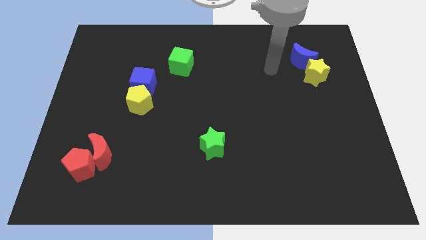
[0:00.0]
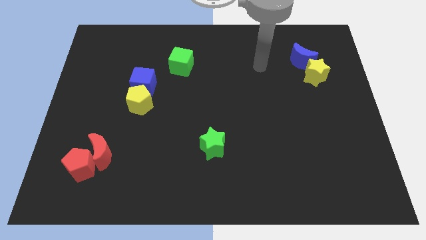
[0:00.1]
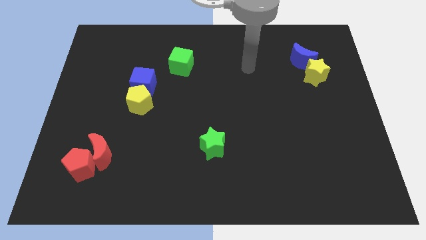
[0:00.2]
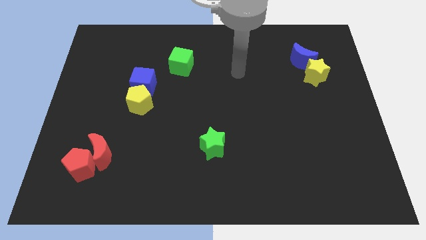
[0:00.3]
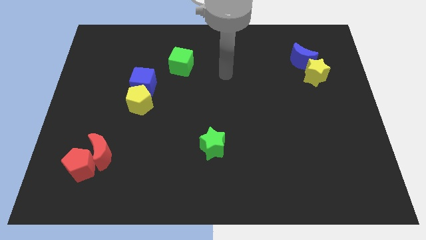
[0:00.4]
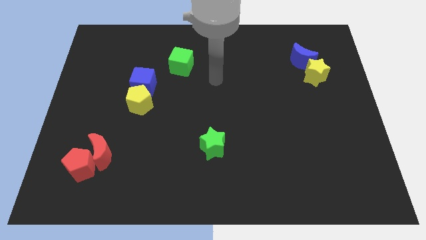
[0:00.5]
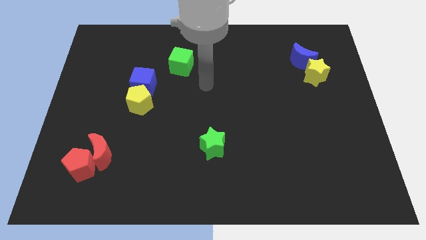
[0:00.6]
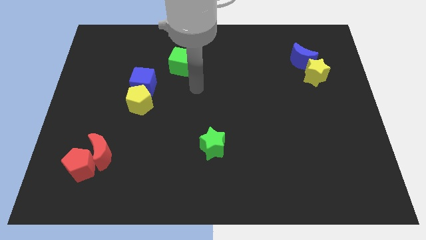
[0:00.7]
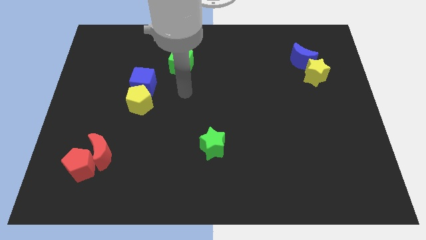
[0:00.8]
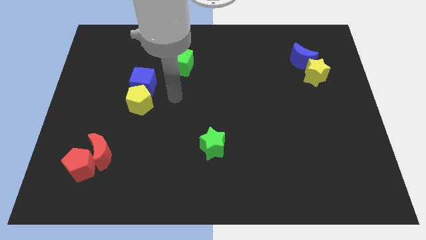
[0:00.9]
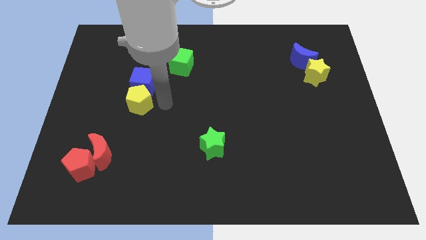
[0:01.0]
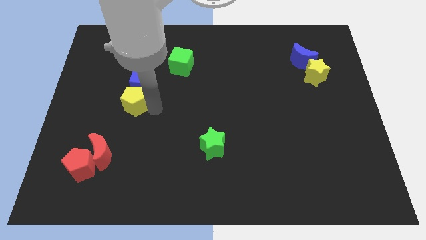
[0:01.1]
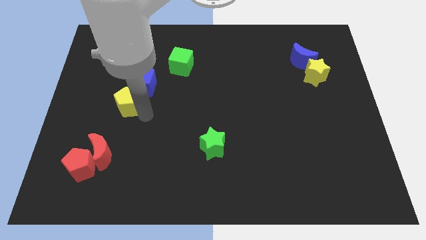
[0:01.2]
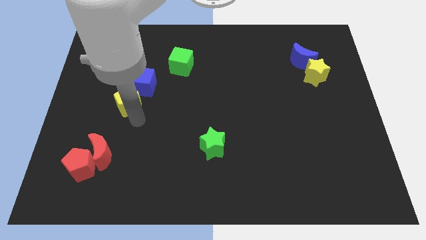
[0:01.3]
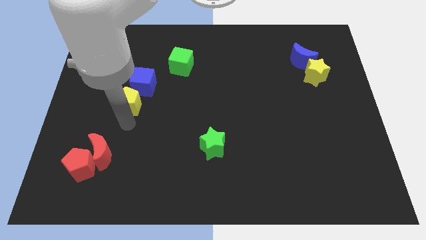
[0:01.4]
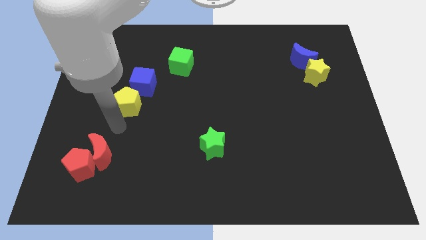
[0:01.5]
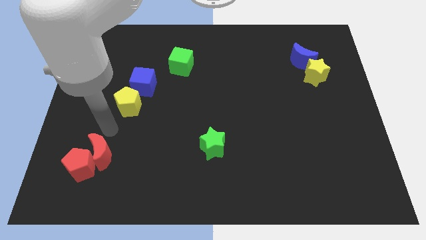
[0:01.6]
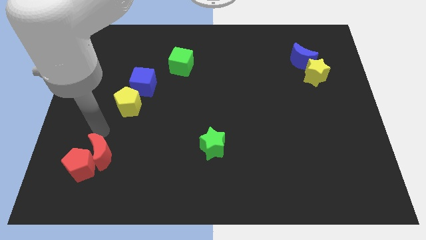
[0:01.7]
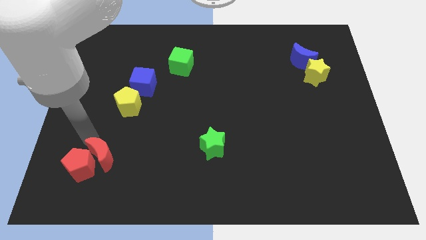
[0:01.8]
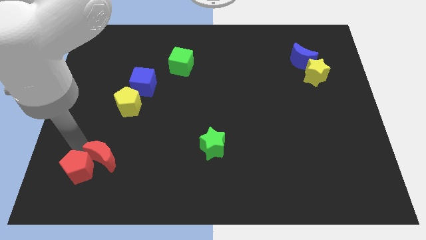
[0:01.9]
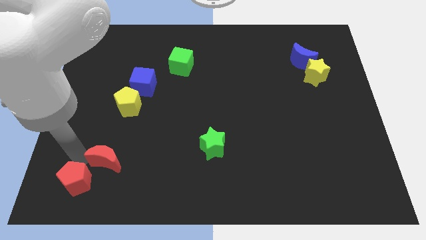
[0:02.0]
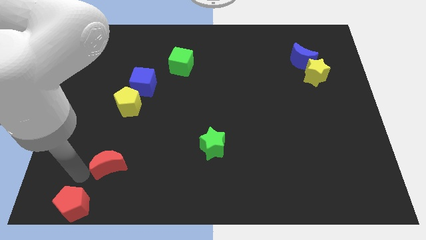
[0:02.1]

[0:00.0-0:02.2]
move the red moon away from the red pentagon

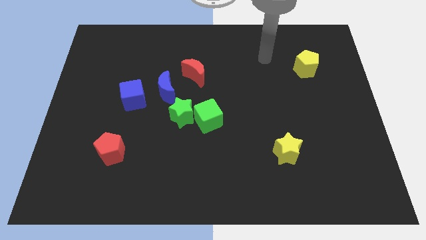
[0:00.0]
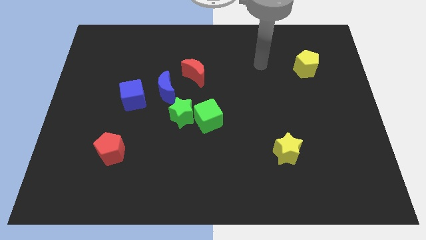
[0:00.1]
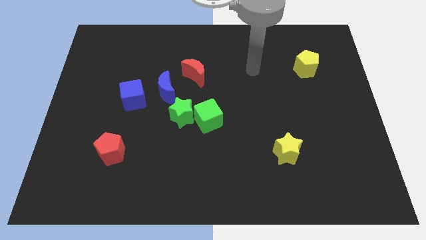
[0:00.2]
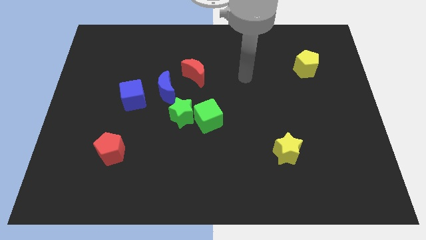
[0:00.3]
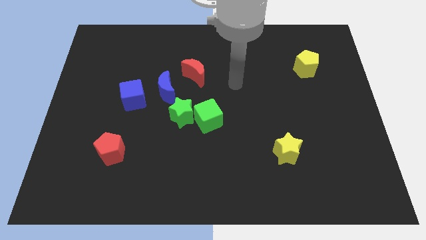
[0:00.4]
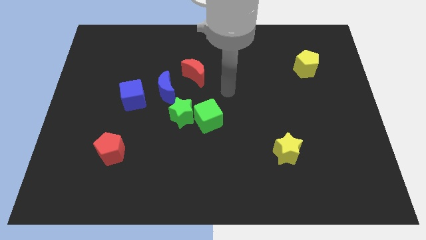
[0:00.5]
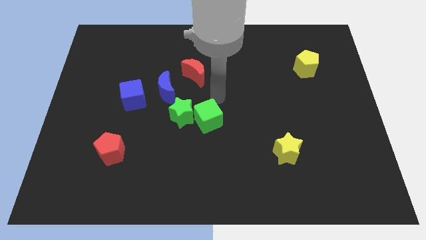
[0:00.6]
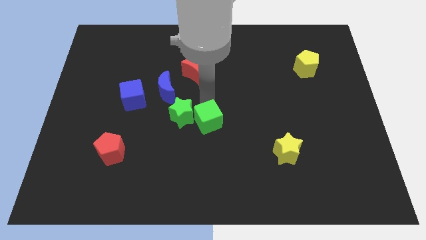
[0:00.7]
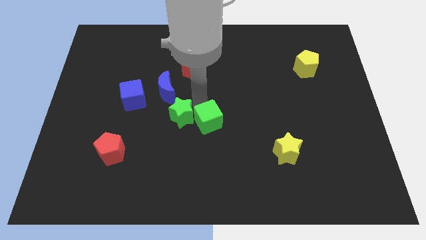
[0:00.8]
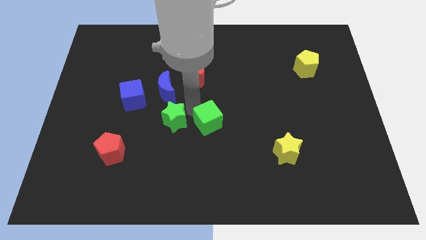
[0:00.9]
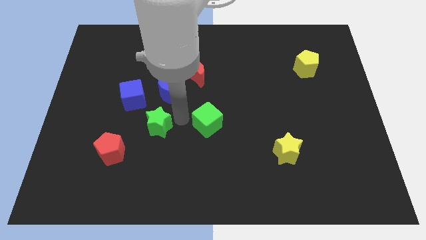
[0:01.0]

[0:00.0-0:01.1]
separate the green cube from the green star

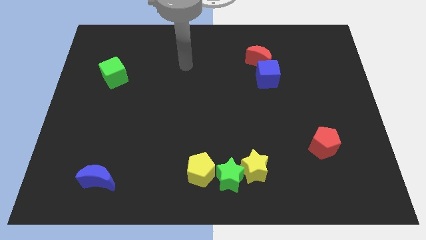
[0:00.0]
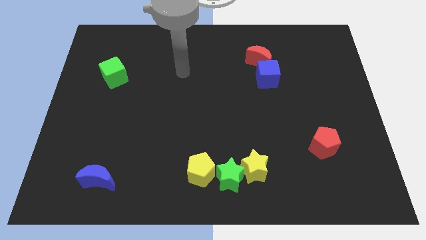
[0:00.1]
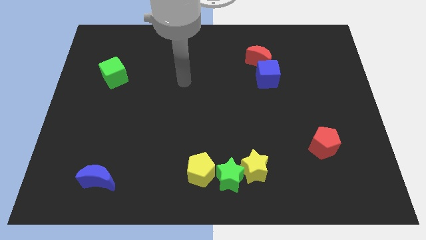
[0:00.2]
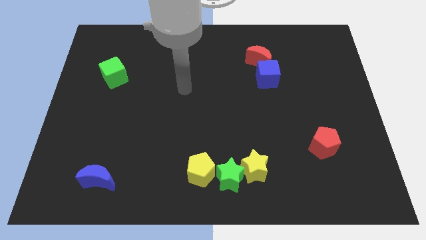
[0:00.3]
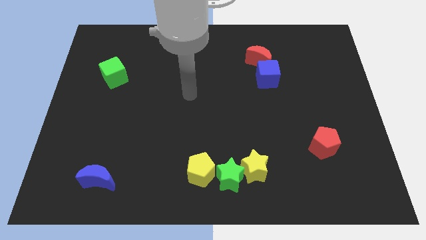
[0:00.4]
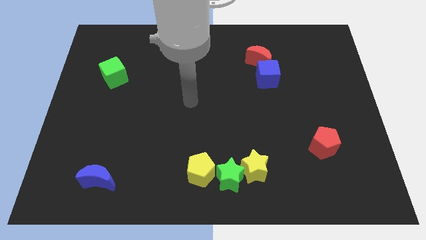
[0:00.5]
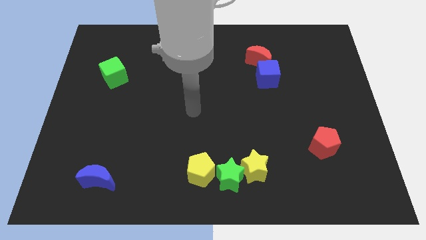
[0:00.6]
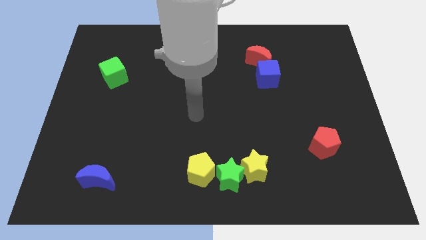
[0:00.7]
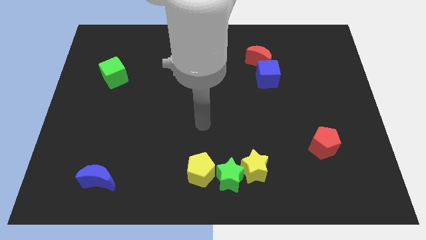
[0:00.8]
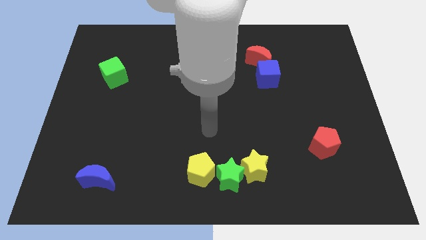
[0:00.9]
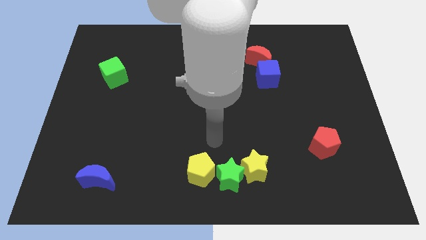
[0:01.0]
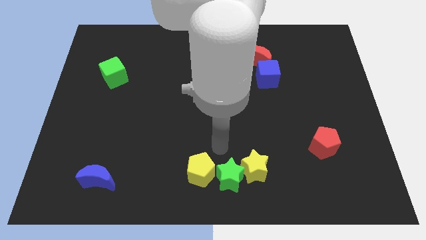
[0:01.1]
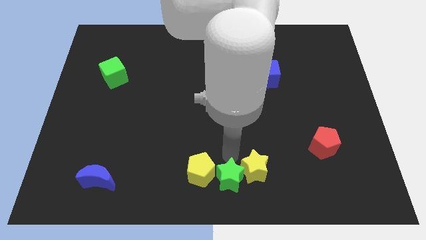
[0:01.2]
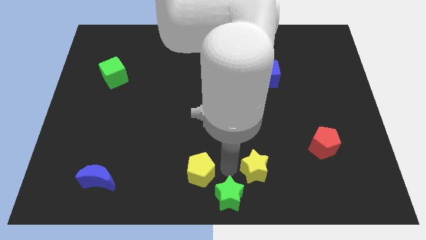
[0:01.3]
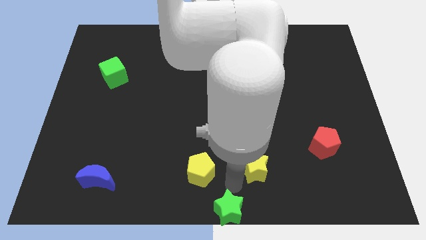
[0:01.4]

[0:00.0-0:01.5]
move the yellow star away from the green star

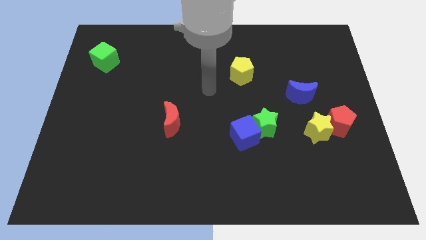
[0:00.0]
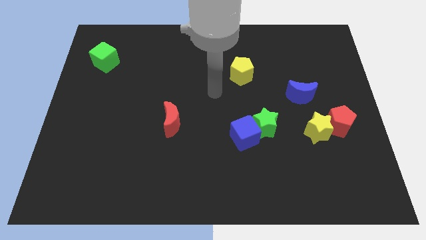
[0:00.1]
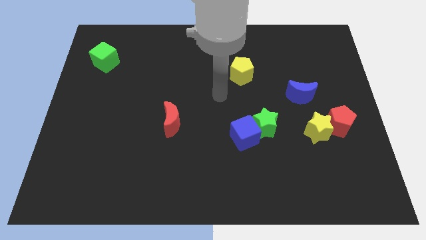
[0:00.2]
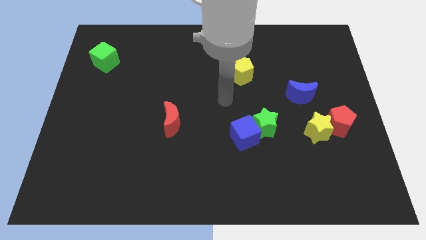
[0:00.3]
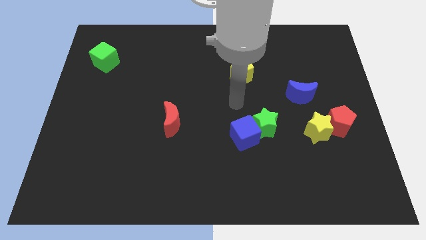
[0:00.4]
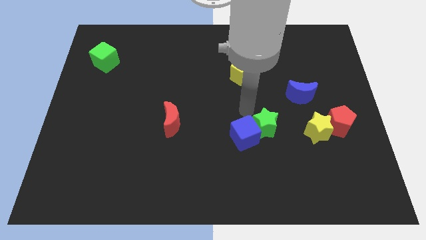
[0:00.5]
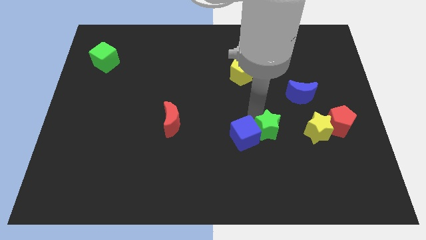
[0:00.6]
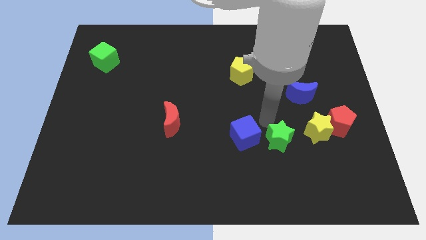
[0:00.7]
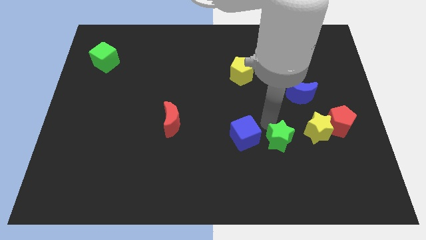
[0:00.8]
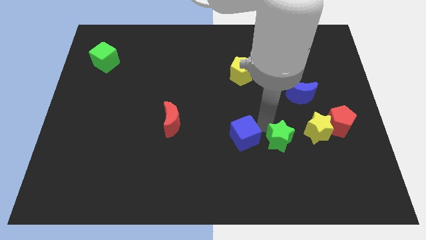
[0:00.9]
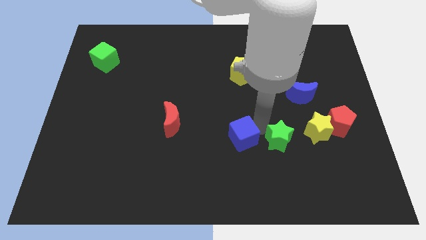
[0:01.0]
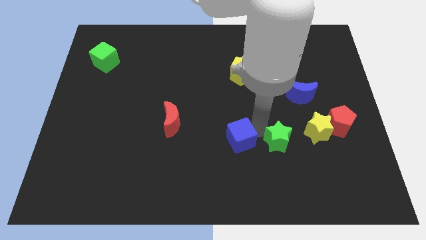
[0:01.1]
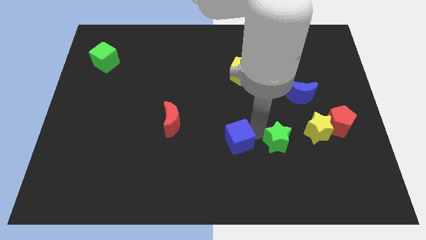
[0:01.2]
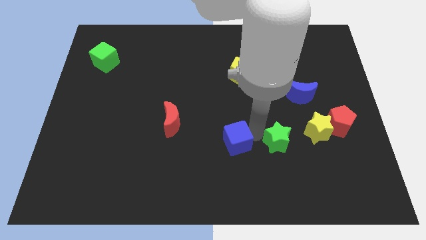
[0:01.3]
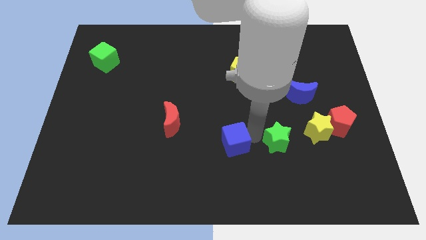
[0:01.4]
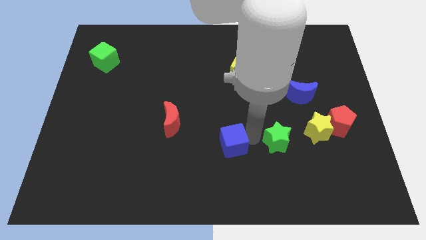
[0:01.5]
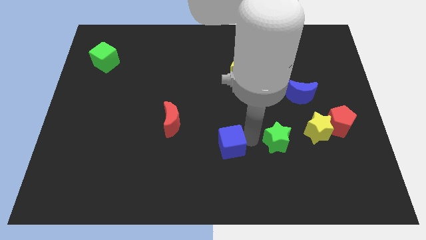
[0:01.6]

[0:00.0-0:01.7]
pull the blue cube apart from the green star

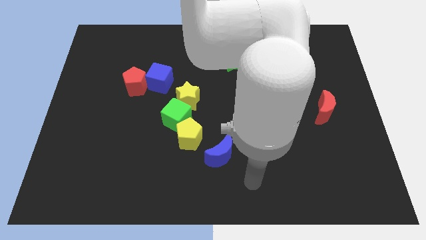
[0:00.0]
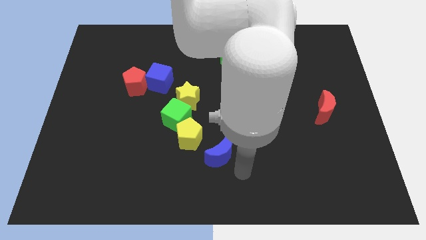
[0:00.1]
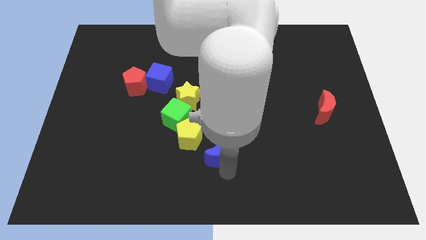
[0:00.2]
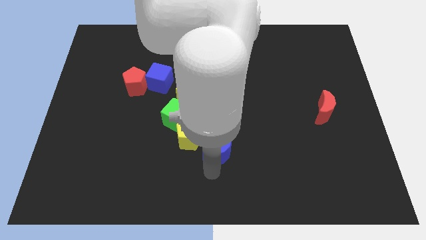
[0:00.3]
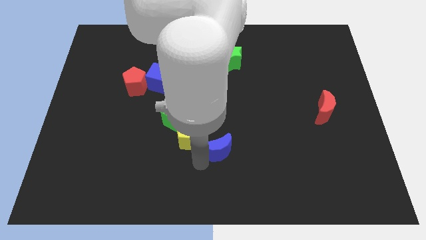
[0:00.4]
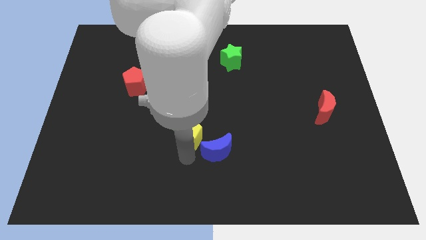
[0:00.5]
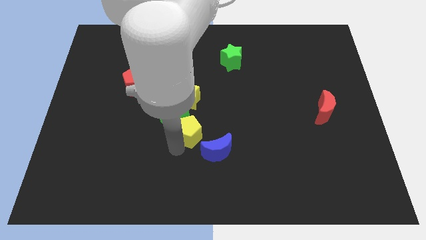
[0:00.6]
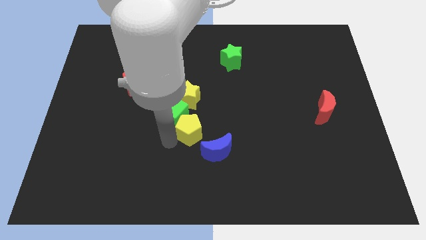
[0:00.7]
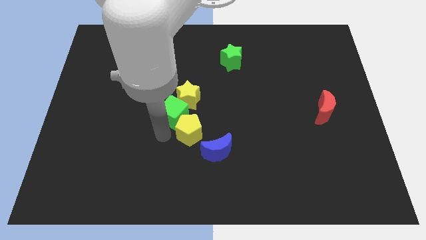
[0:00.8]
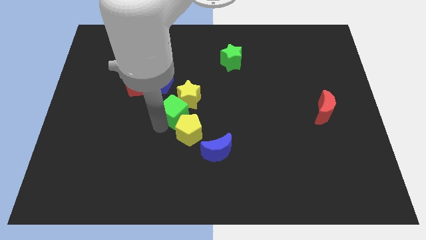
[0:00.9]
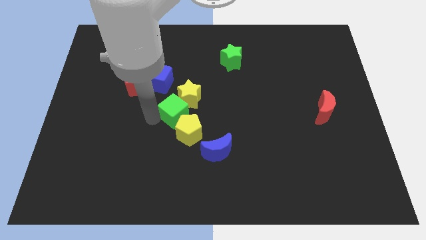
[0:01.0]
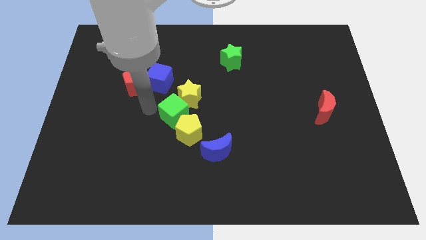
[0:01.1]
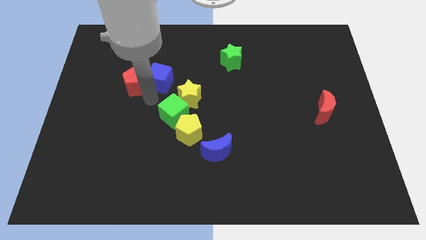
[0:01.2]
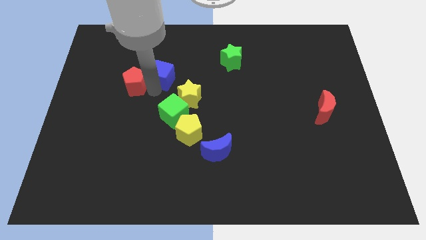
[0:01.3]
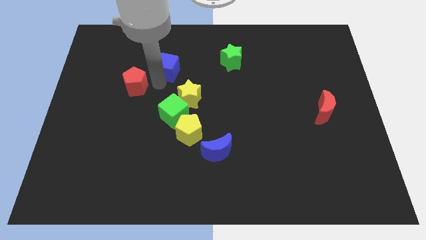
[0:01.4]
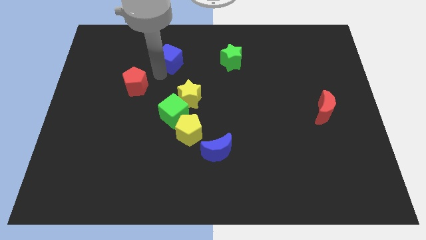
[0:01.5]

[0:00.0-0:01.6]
separate the red pentagon from the blue cube

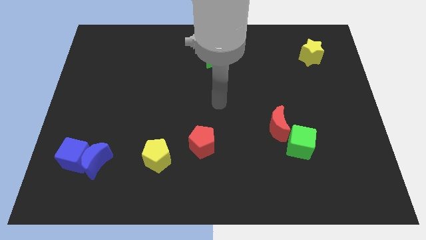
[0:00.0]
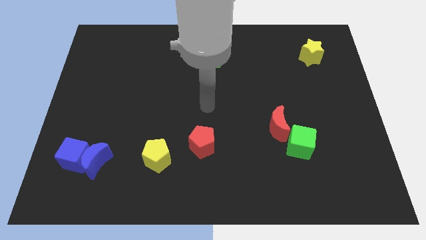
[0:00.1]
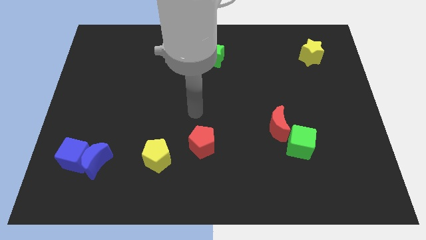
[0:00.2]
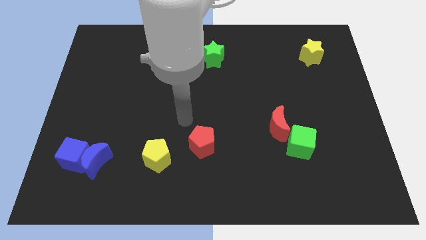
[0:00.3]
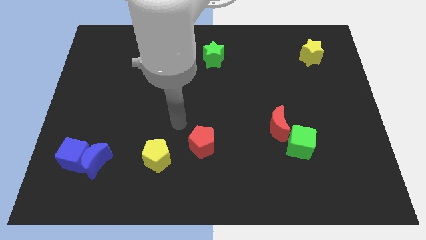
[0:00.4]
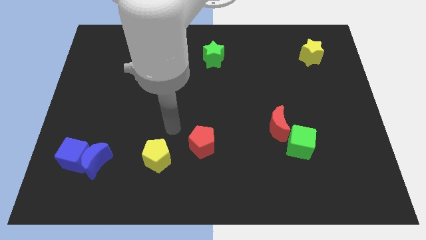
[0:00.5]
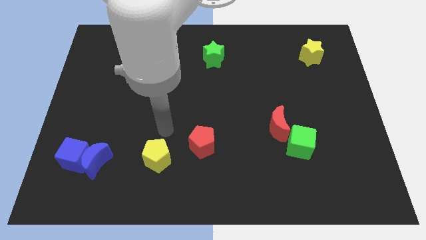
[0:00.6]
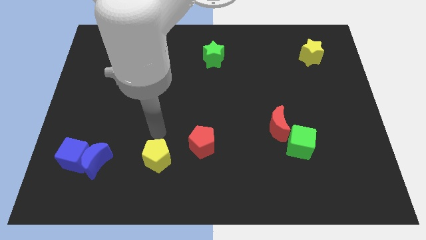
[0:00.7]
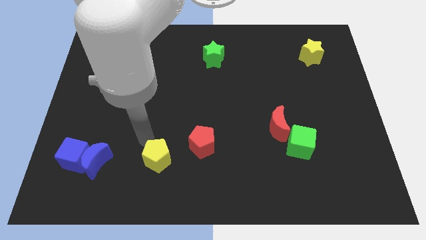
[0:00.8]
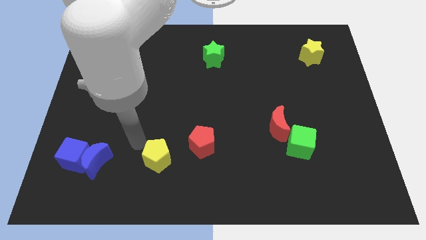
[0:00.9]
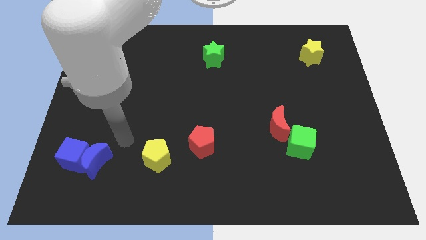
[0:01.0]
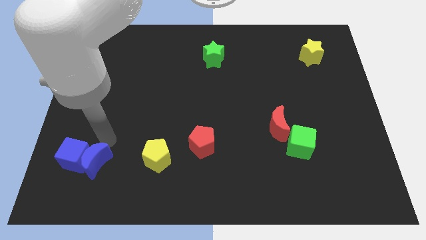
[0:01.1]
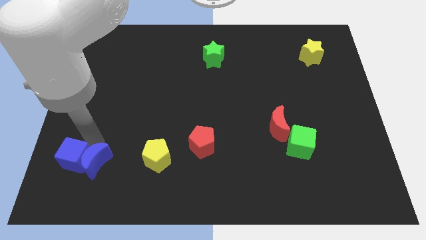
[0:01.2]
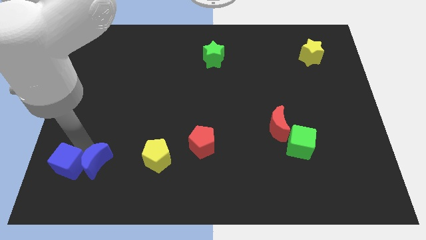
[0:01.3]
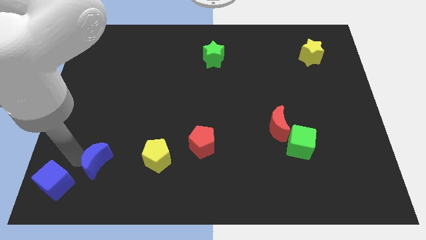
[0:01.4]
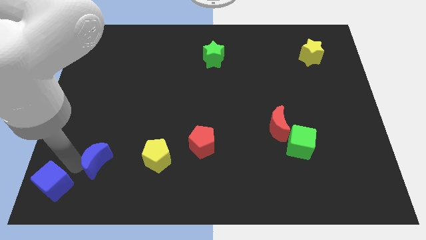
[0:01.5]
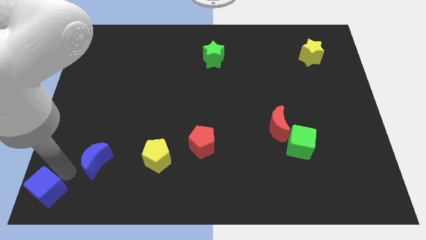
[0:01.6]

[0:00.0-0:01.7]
move the blue moon away from the blue cube
